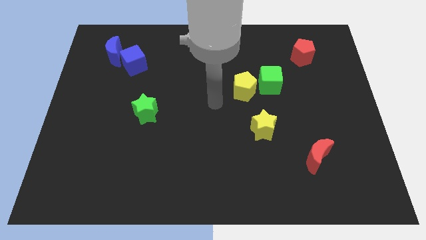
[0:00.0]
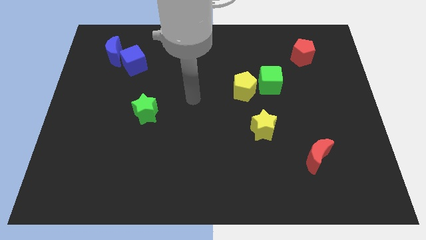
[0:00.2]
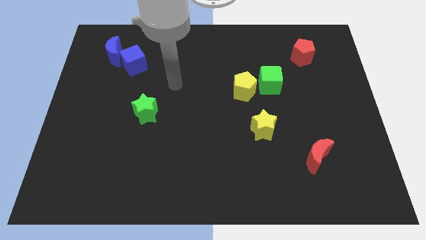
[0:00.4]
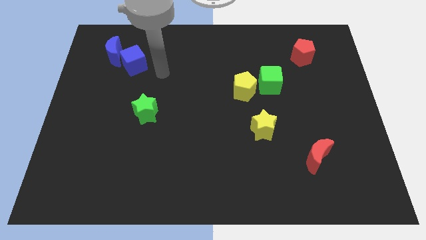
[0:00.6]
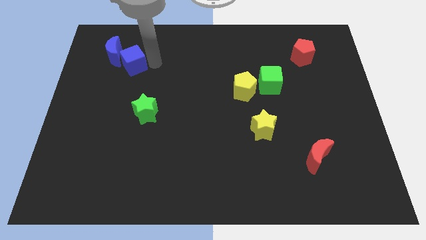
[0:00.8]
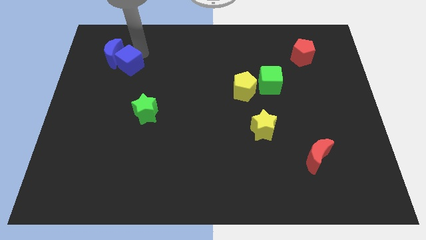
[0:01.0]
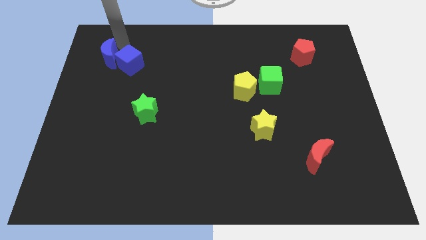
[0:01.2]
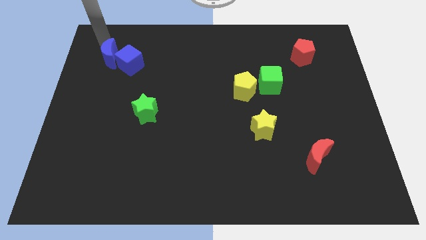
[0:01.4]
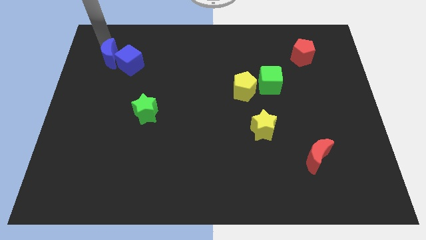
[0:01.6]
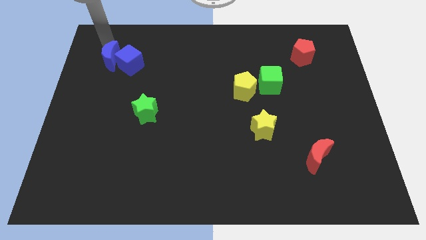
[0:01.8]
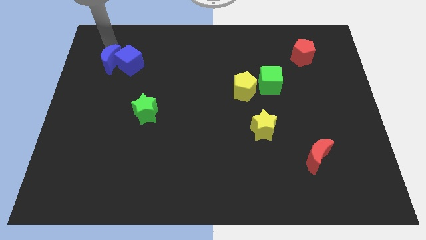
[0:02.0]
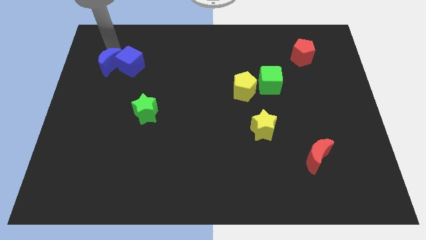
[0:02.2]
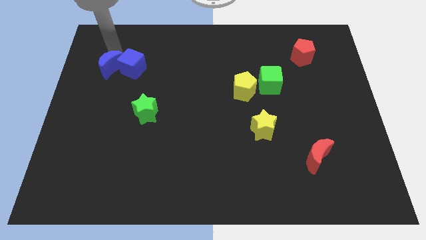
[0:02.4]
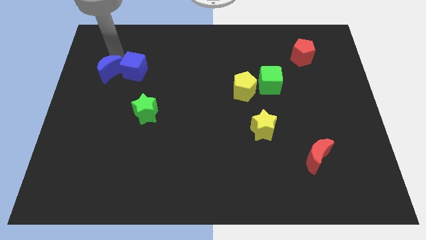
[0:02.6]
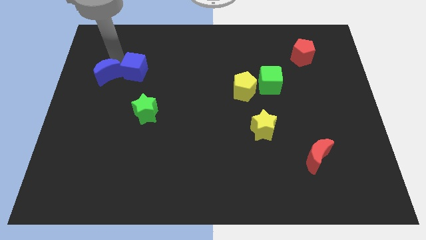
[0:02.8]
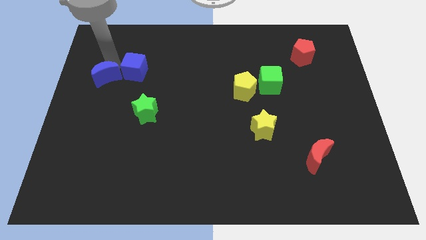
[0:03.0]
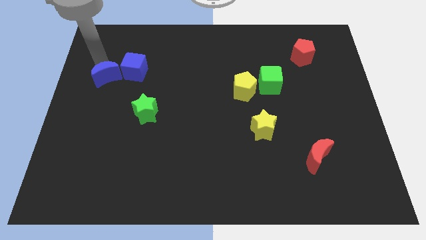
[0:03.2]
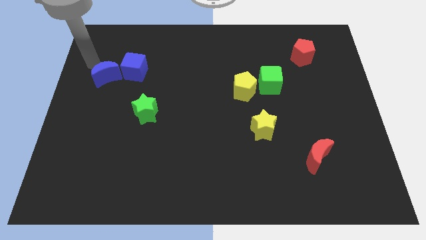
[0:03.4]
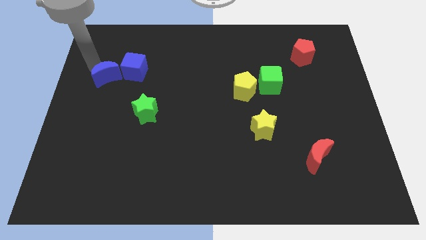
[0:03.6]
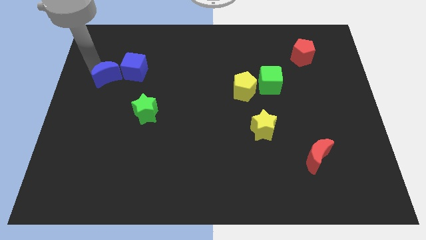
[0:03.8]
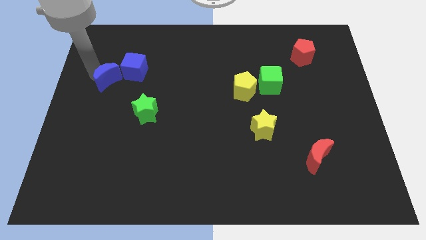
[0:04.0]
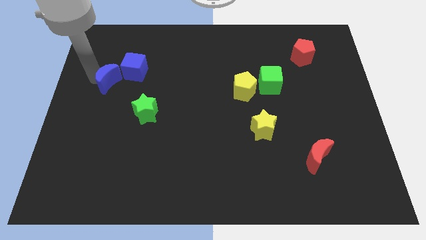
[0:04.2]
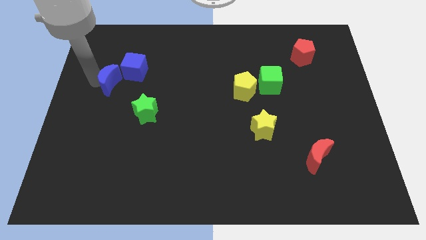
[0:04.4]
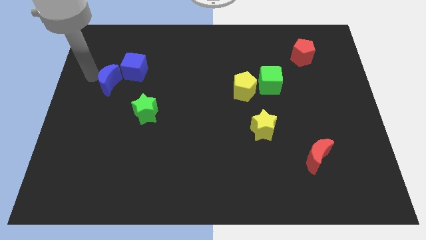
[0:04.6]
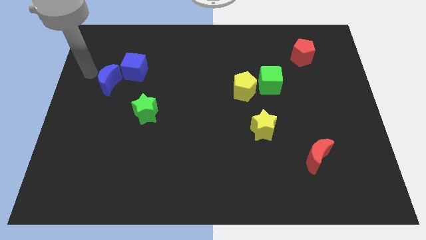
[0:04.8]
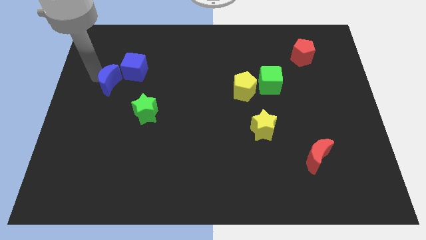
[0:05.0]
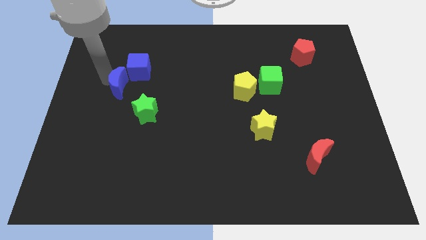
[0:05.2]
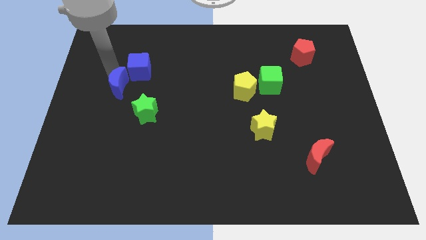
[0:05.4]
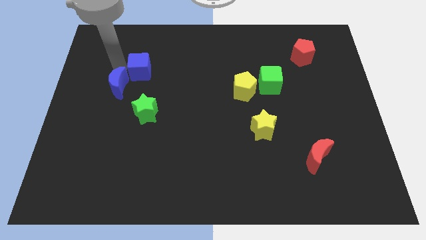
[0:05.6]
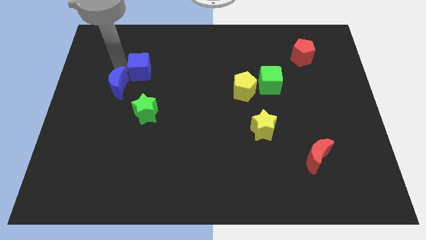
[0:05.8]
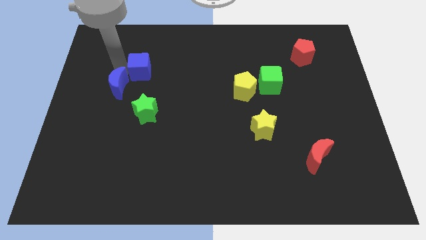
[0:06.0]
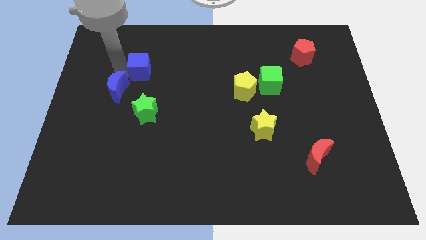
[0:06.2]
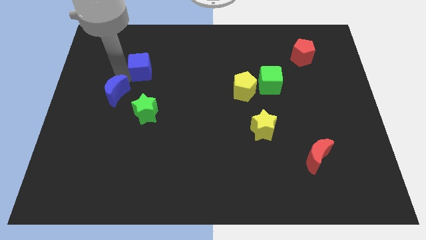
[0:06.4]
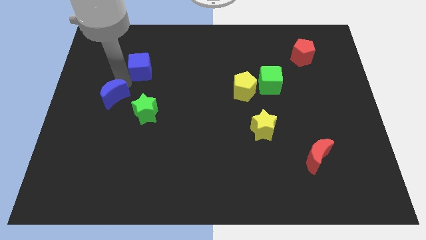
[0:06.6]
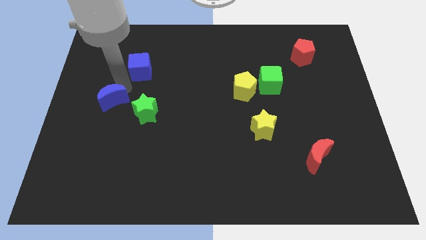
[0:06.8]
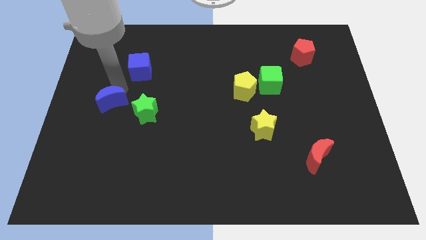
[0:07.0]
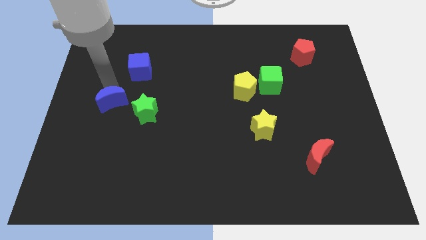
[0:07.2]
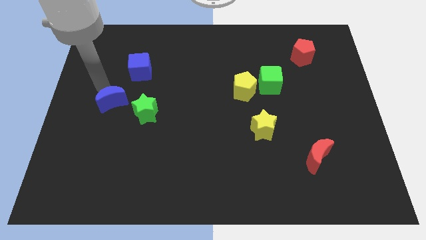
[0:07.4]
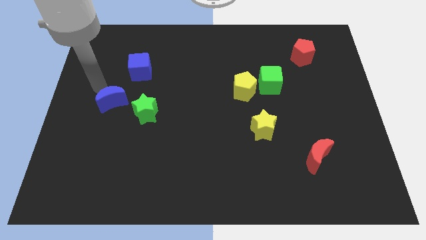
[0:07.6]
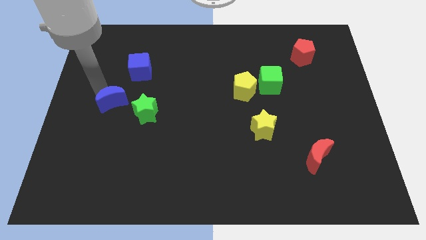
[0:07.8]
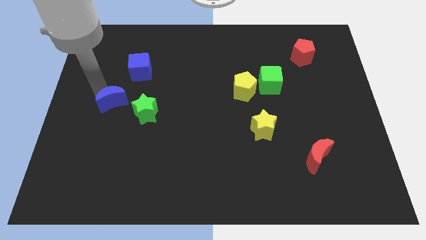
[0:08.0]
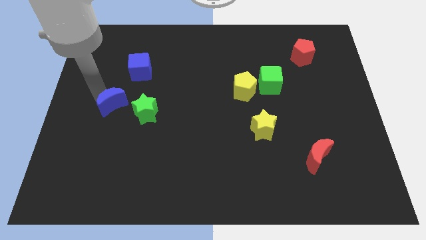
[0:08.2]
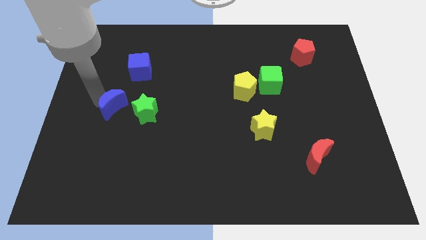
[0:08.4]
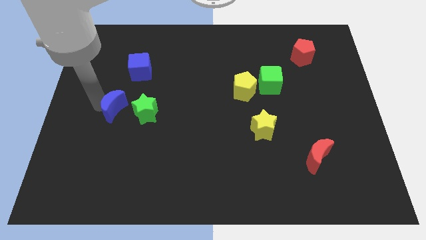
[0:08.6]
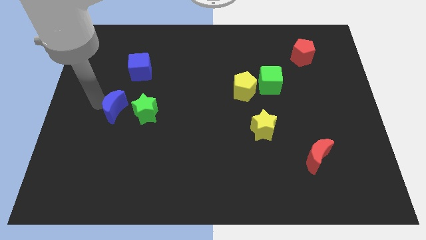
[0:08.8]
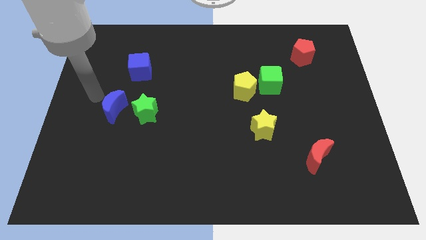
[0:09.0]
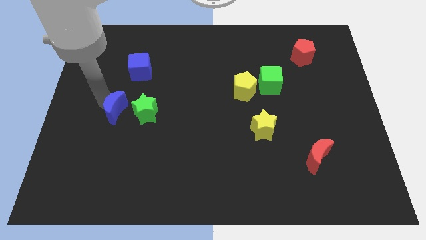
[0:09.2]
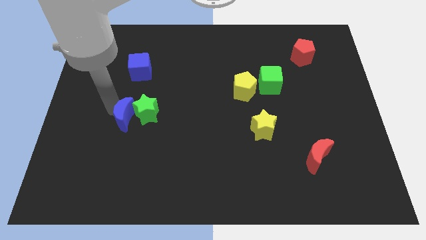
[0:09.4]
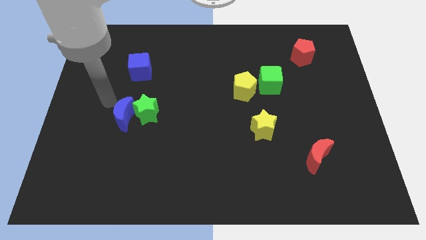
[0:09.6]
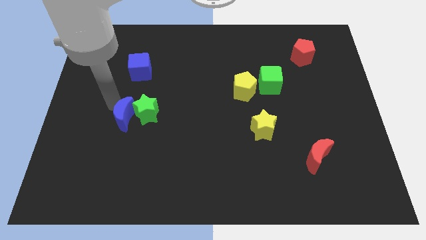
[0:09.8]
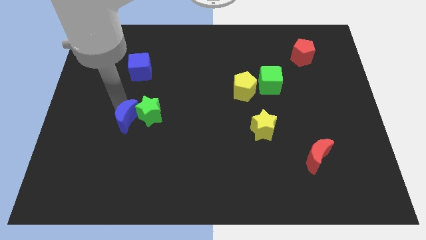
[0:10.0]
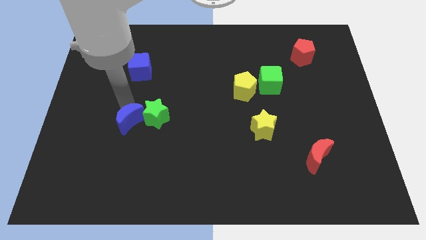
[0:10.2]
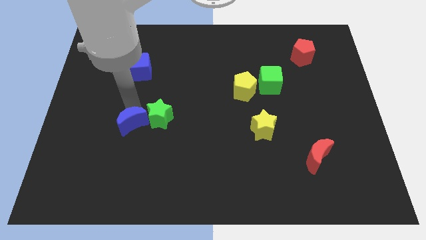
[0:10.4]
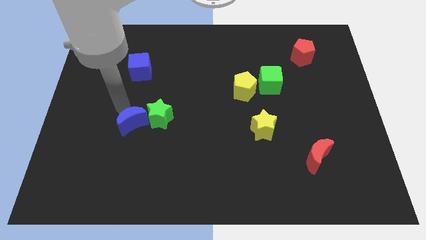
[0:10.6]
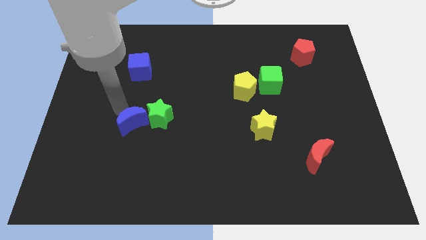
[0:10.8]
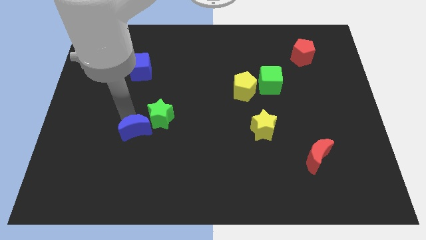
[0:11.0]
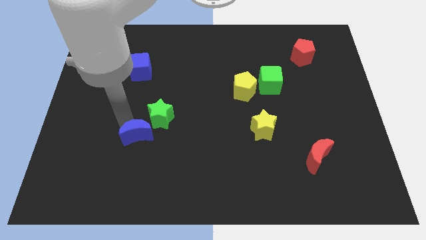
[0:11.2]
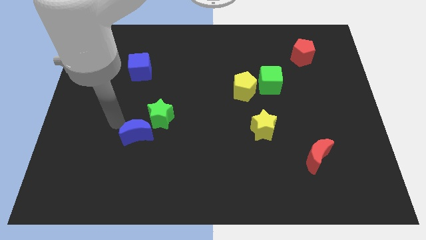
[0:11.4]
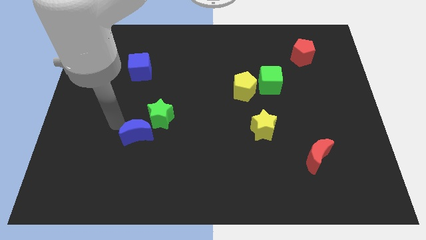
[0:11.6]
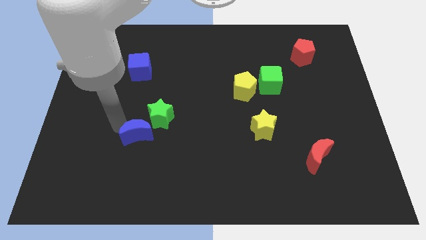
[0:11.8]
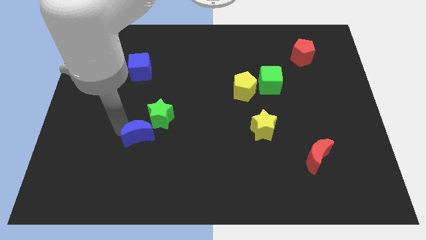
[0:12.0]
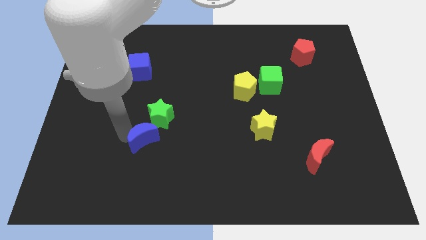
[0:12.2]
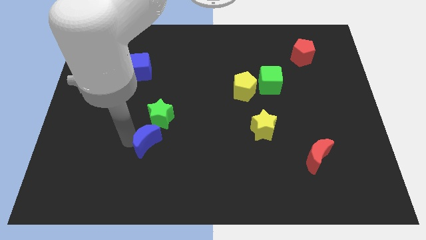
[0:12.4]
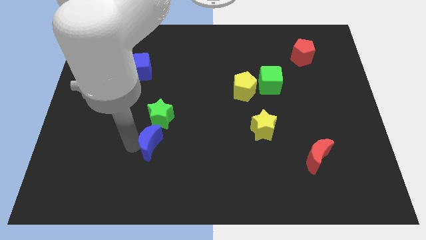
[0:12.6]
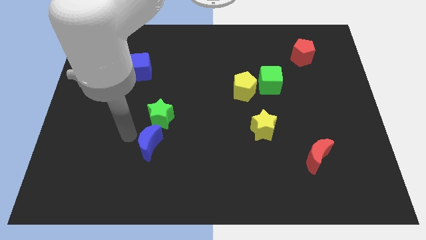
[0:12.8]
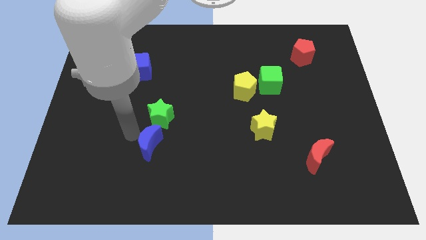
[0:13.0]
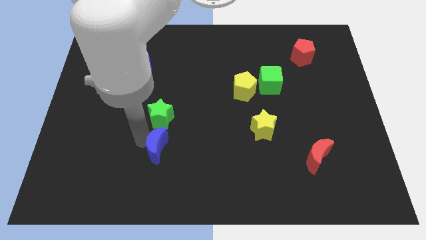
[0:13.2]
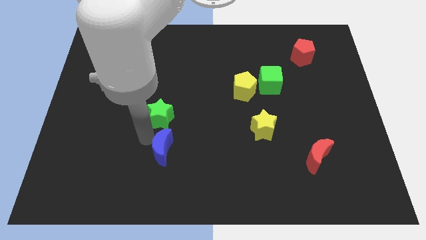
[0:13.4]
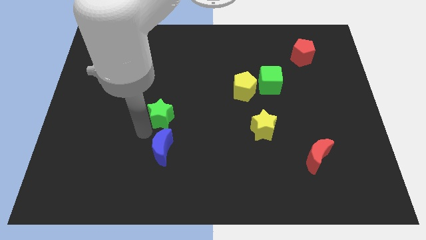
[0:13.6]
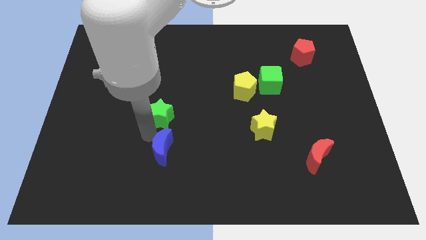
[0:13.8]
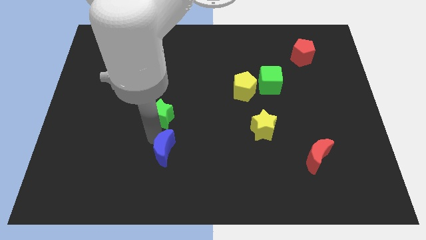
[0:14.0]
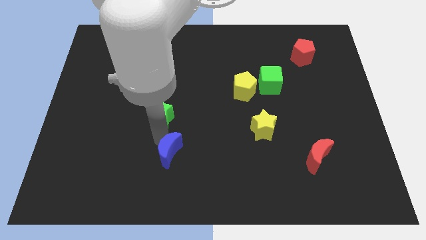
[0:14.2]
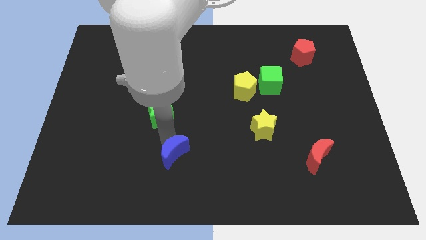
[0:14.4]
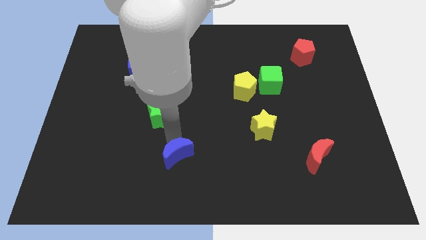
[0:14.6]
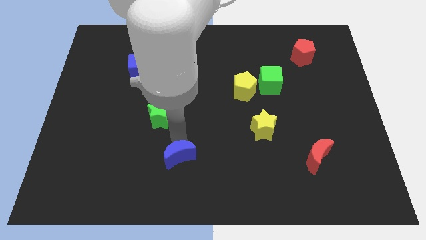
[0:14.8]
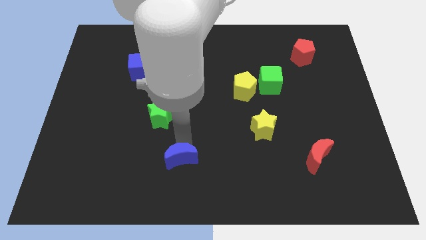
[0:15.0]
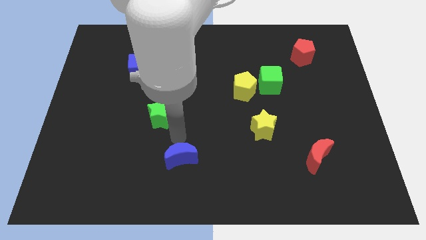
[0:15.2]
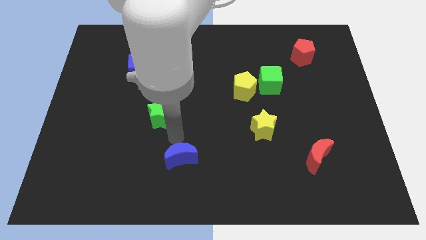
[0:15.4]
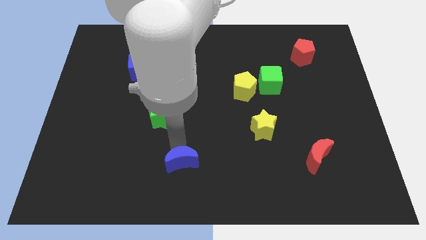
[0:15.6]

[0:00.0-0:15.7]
slide the blue moon to the bottom
